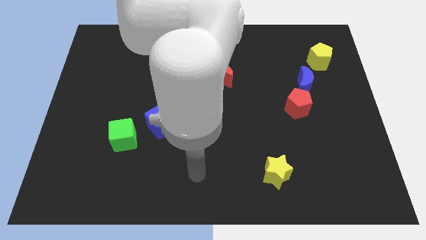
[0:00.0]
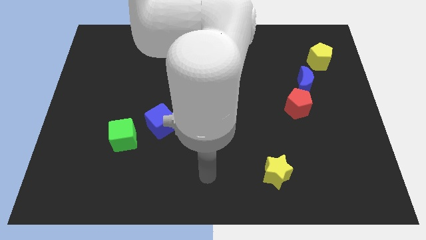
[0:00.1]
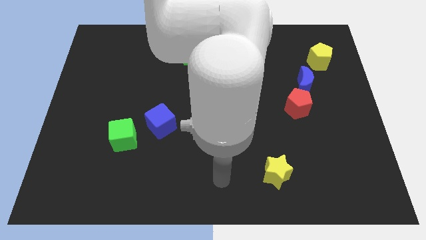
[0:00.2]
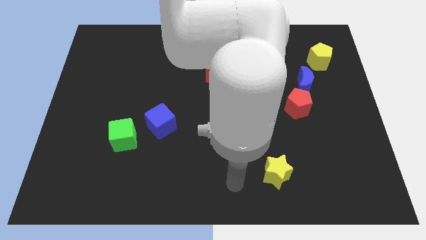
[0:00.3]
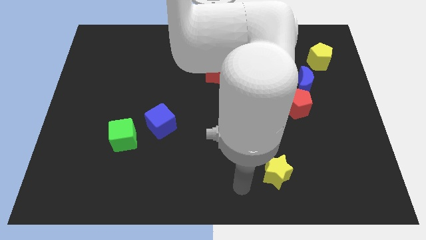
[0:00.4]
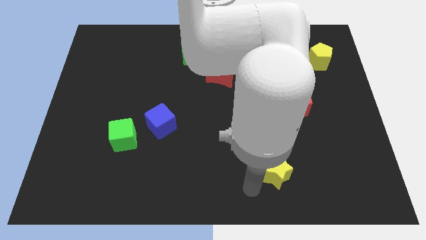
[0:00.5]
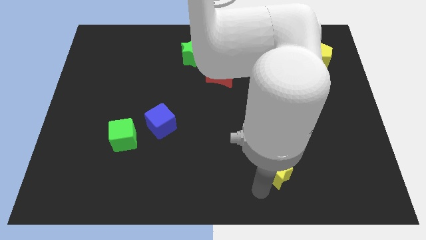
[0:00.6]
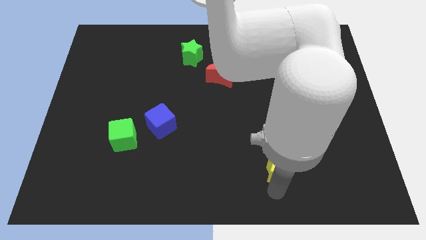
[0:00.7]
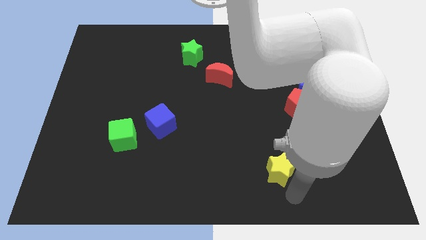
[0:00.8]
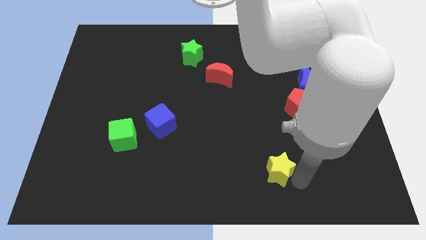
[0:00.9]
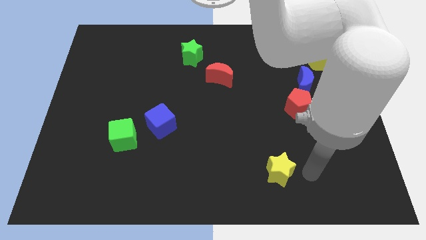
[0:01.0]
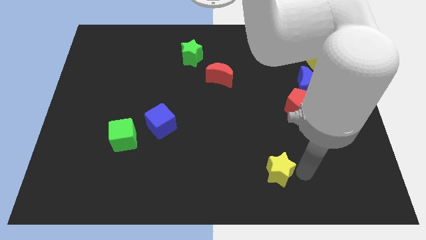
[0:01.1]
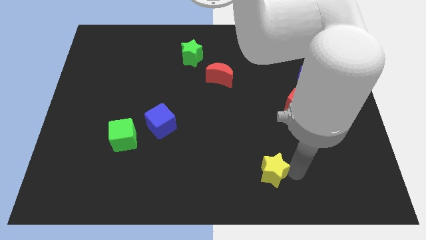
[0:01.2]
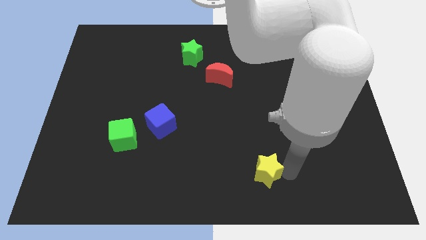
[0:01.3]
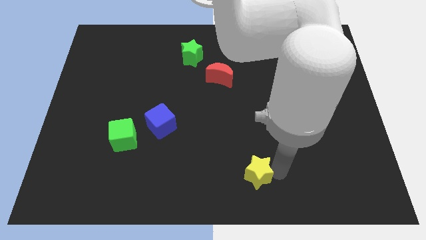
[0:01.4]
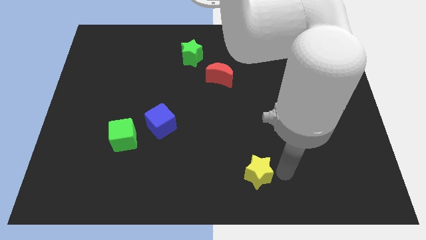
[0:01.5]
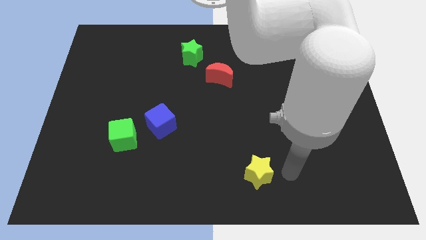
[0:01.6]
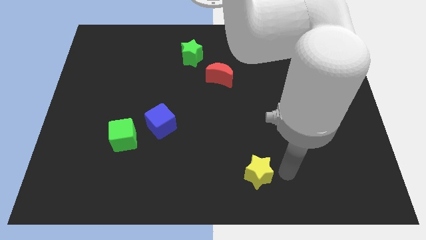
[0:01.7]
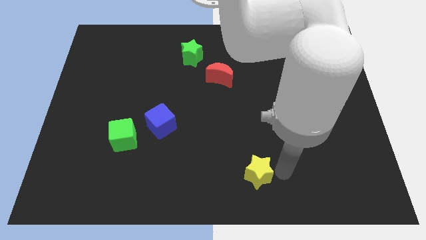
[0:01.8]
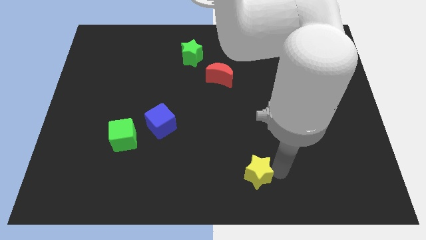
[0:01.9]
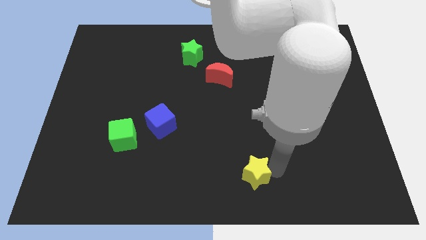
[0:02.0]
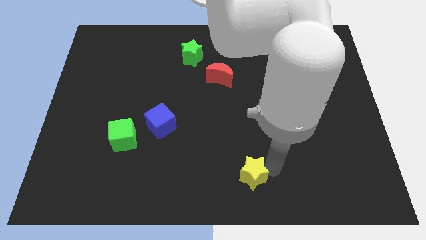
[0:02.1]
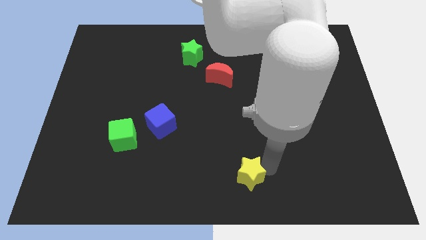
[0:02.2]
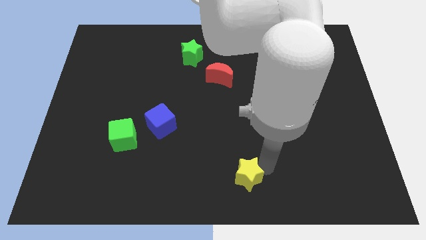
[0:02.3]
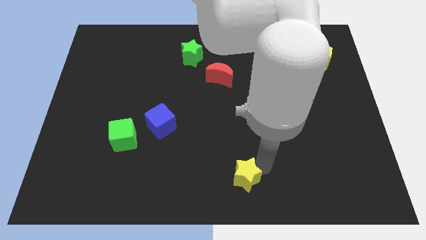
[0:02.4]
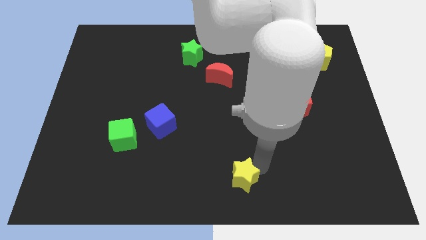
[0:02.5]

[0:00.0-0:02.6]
push the yellow star to the left a bit

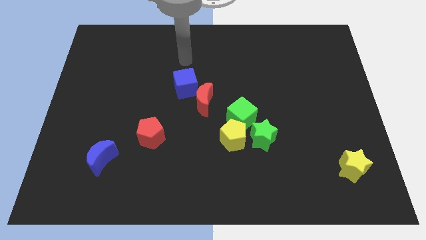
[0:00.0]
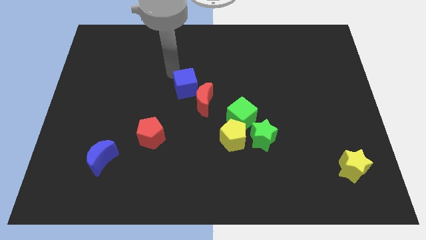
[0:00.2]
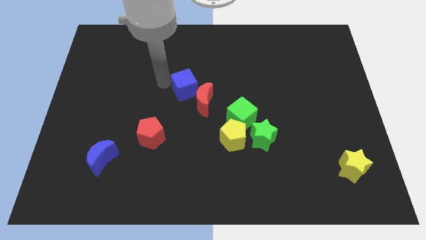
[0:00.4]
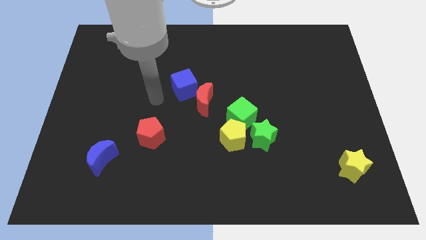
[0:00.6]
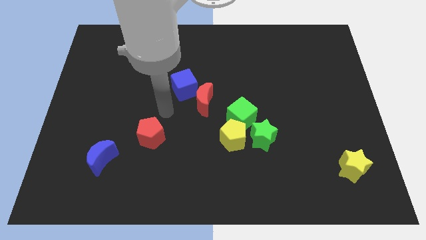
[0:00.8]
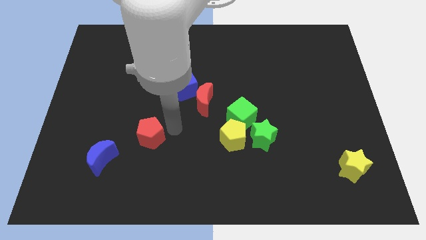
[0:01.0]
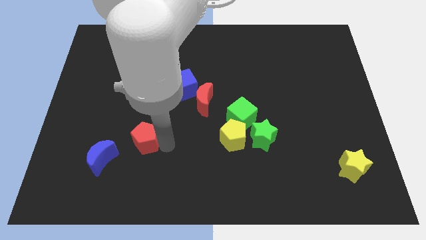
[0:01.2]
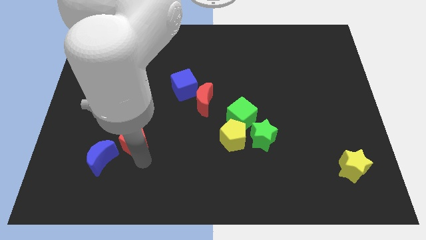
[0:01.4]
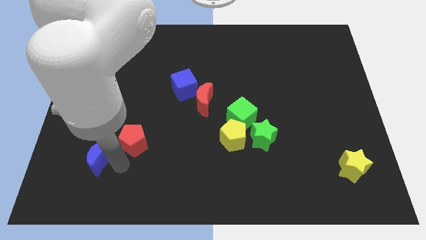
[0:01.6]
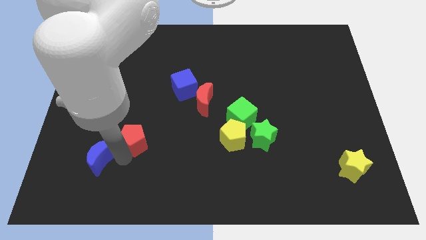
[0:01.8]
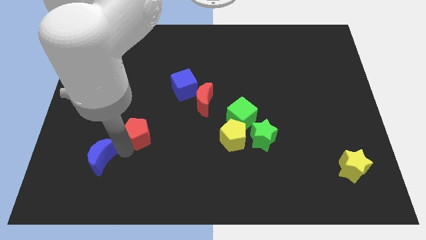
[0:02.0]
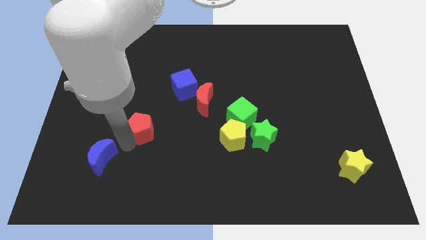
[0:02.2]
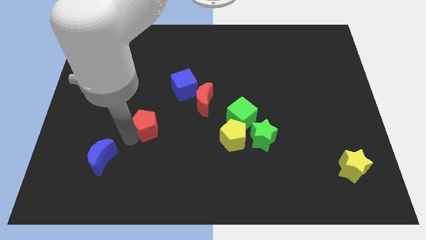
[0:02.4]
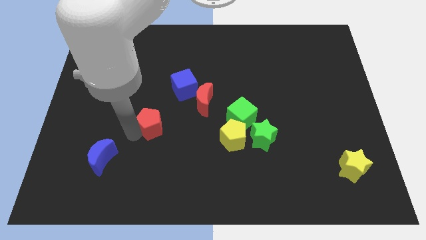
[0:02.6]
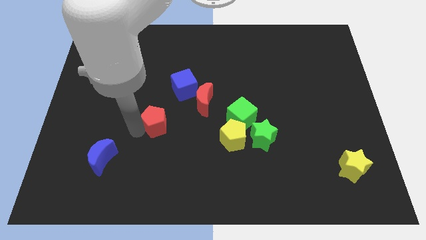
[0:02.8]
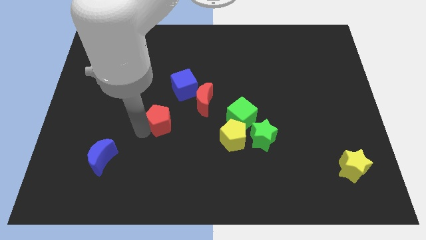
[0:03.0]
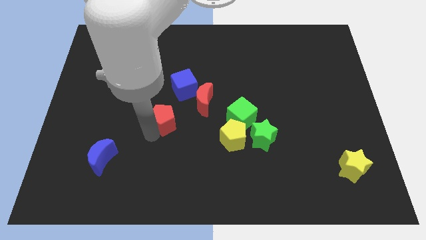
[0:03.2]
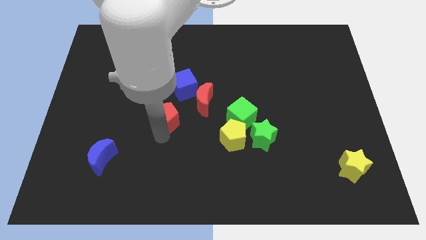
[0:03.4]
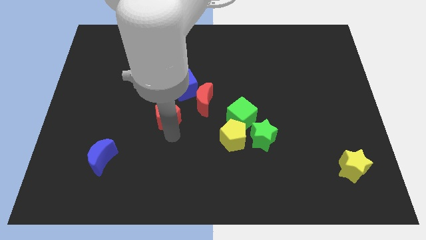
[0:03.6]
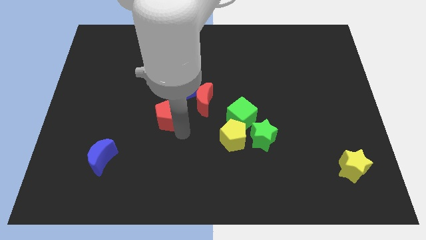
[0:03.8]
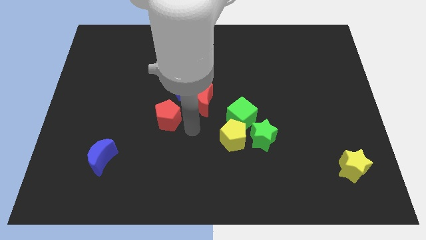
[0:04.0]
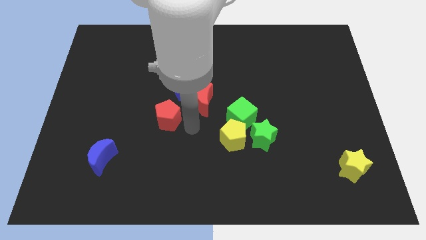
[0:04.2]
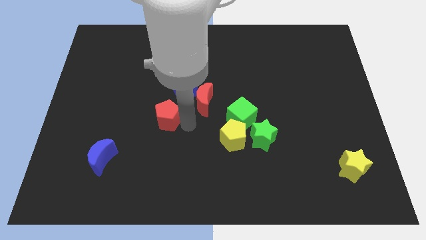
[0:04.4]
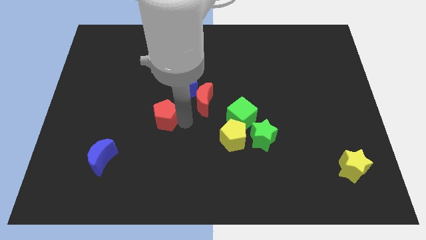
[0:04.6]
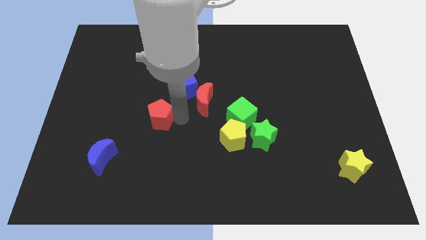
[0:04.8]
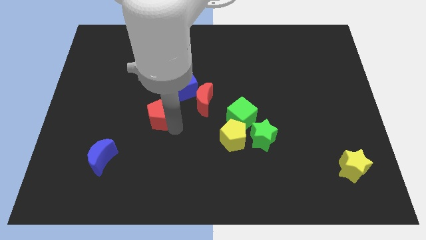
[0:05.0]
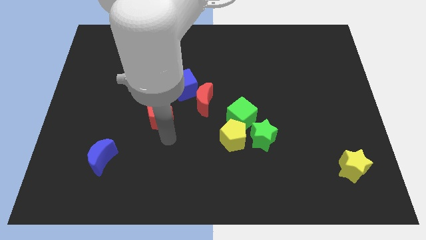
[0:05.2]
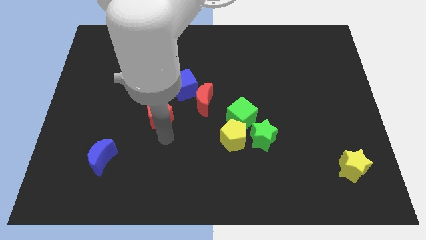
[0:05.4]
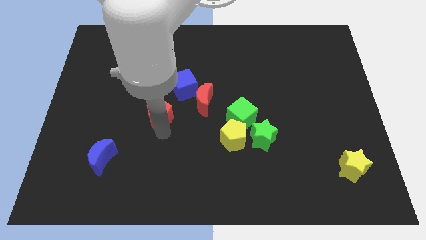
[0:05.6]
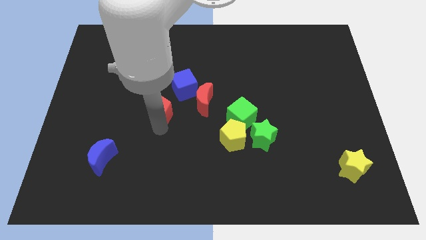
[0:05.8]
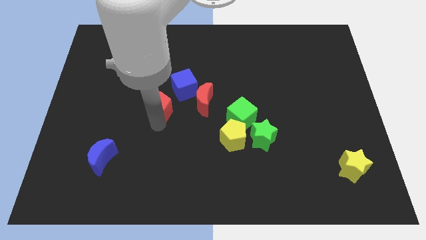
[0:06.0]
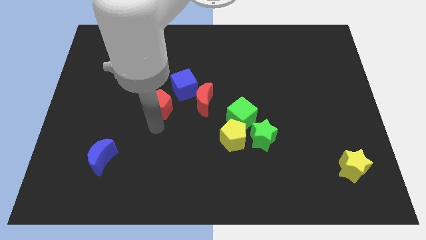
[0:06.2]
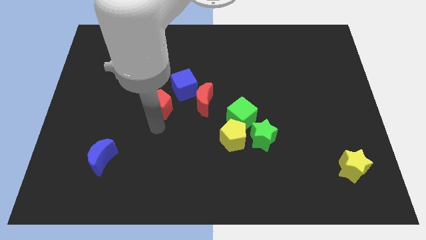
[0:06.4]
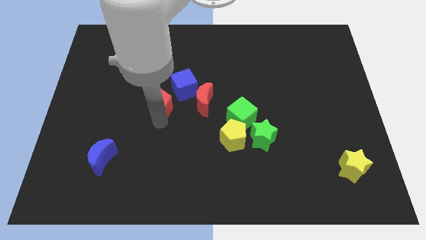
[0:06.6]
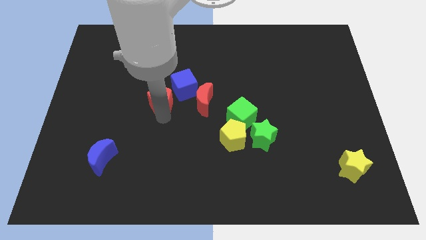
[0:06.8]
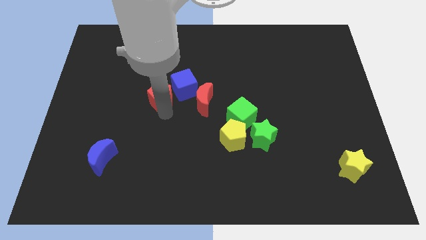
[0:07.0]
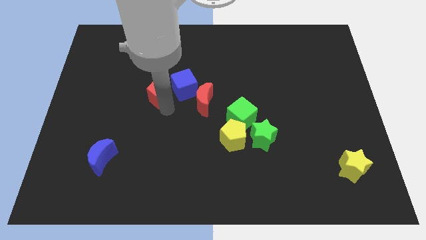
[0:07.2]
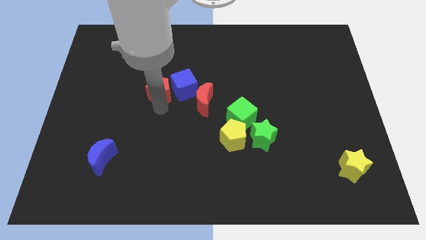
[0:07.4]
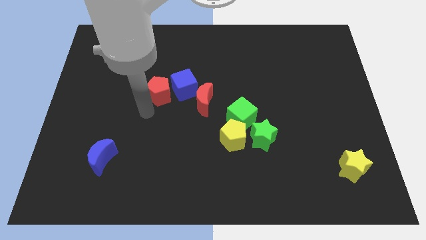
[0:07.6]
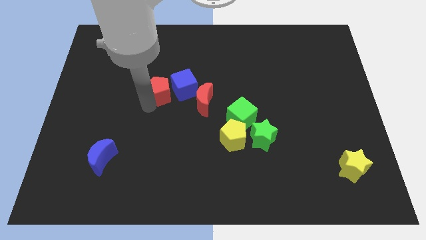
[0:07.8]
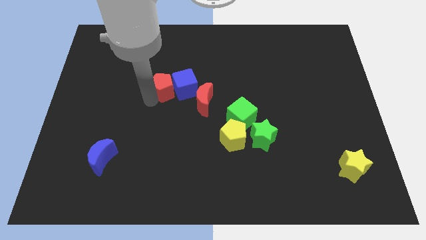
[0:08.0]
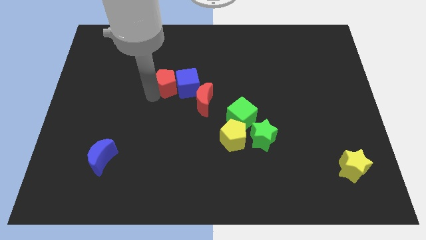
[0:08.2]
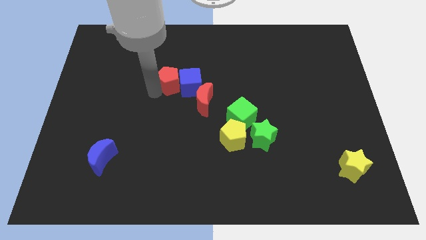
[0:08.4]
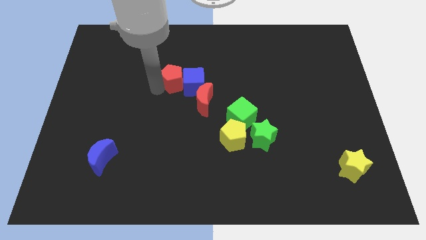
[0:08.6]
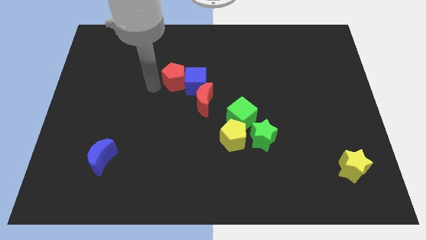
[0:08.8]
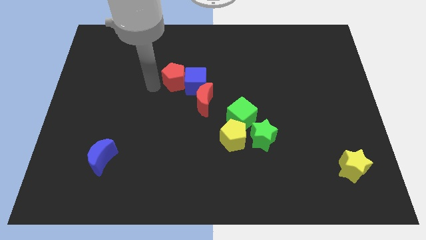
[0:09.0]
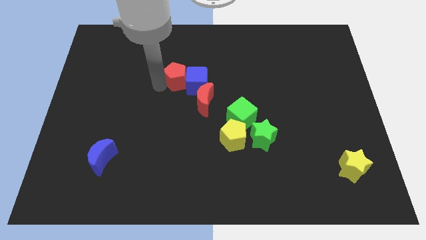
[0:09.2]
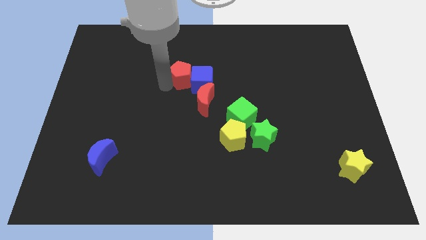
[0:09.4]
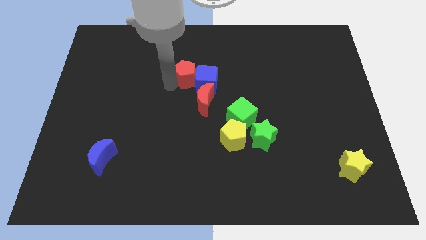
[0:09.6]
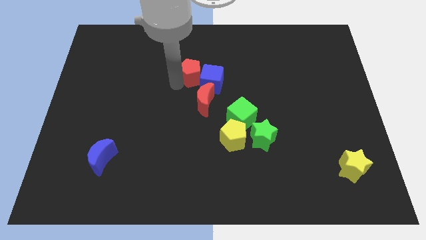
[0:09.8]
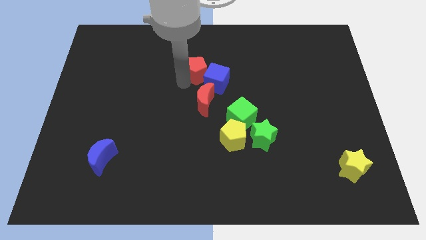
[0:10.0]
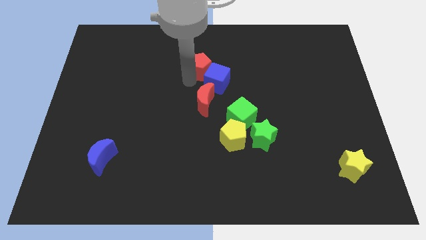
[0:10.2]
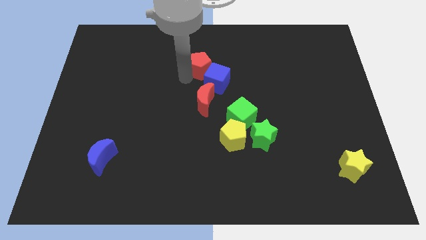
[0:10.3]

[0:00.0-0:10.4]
slide the red pentagon up and right
